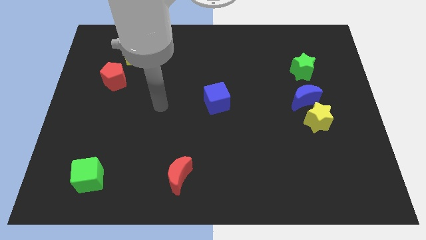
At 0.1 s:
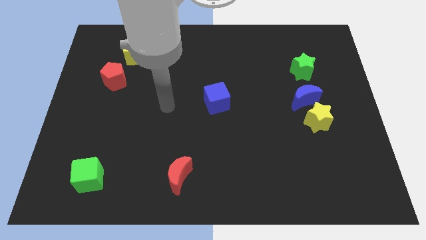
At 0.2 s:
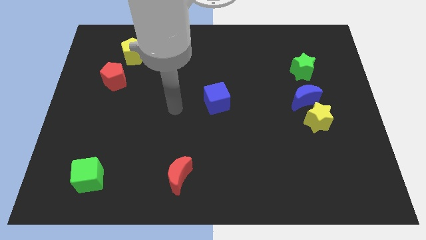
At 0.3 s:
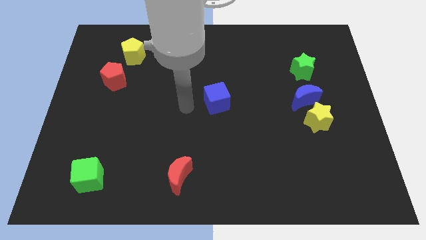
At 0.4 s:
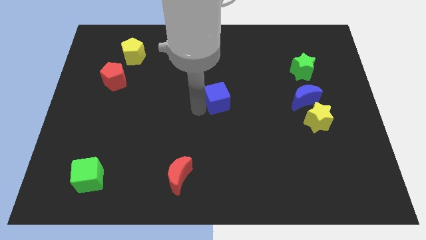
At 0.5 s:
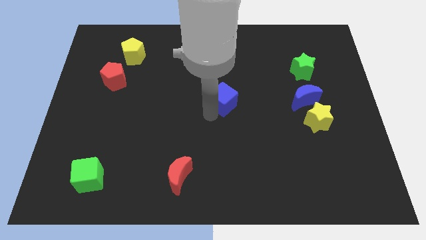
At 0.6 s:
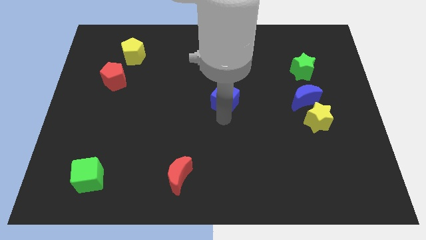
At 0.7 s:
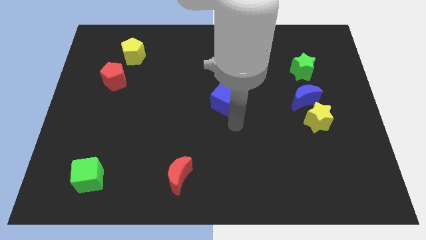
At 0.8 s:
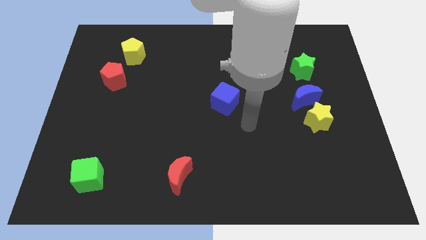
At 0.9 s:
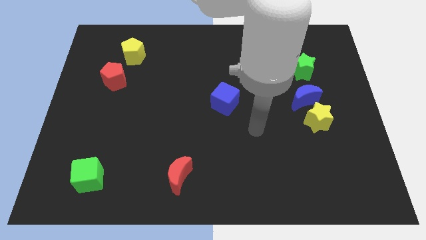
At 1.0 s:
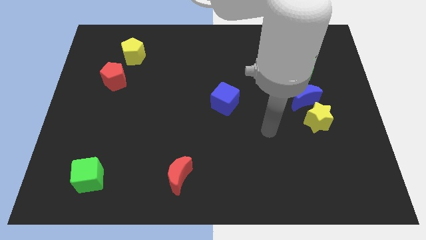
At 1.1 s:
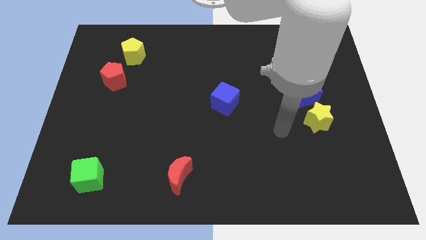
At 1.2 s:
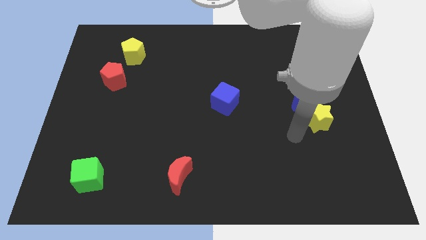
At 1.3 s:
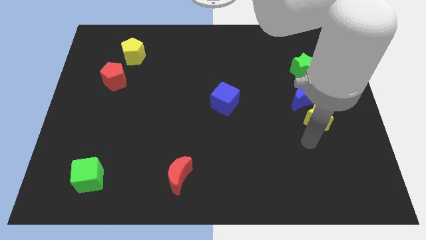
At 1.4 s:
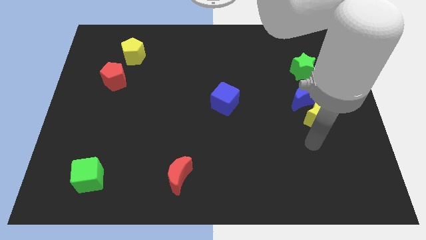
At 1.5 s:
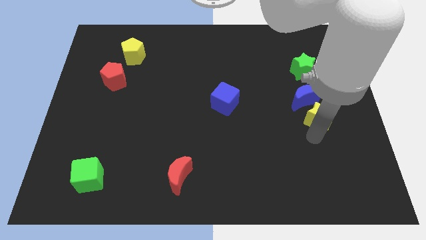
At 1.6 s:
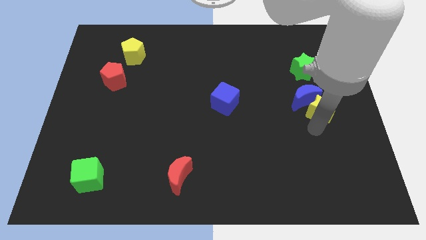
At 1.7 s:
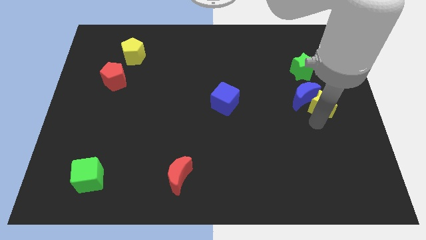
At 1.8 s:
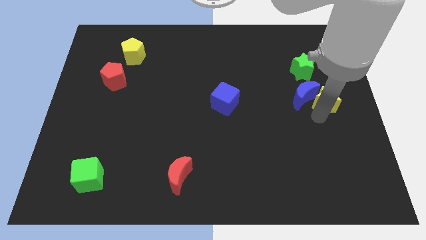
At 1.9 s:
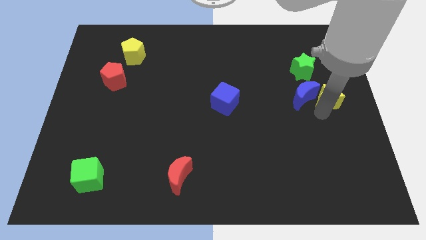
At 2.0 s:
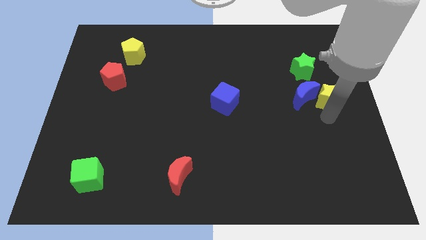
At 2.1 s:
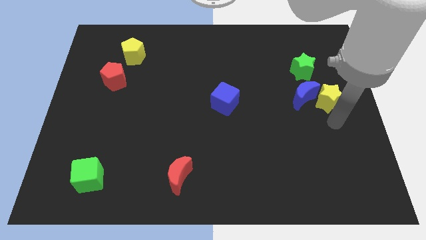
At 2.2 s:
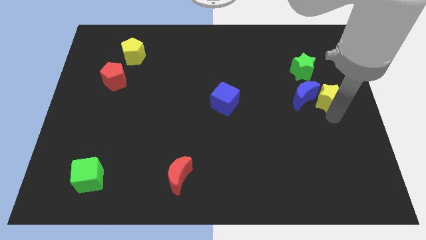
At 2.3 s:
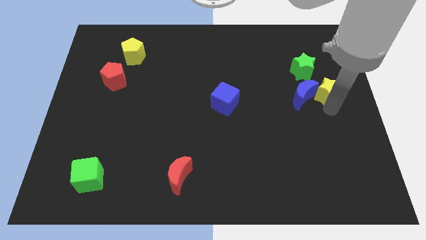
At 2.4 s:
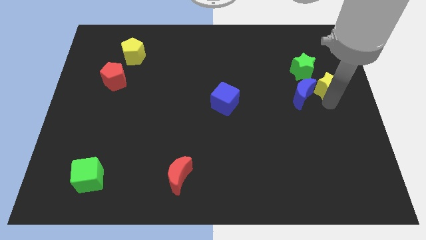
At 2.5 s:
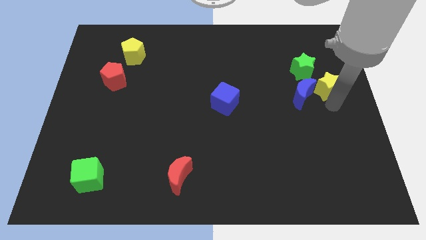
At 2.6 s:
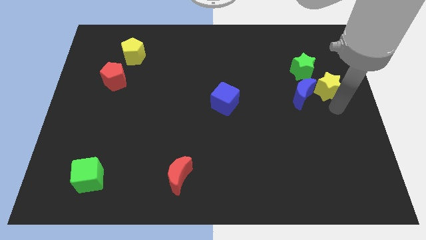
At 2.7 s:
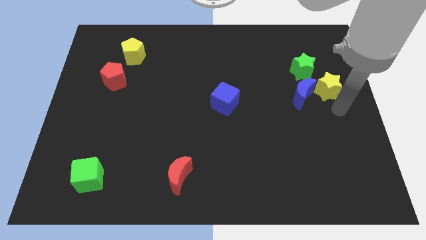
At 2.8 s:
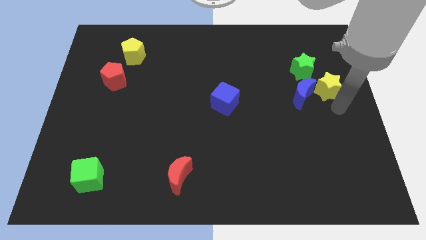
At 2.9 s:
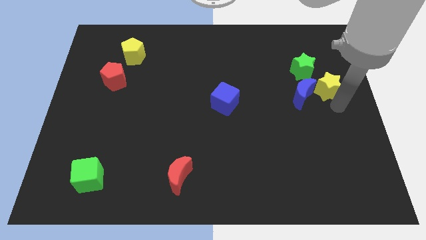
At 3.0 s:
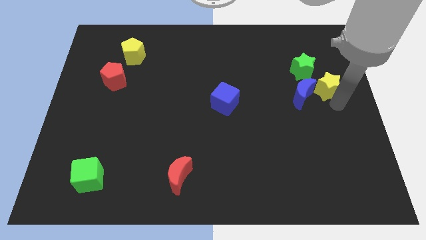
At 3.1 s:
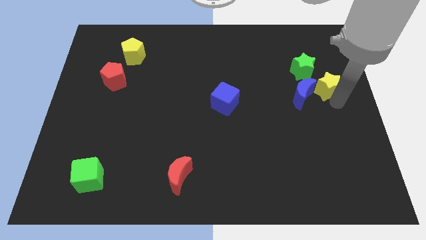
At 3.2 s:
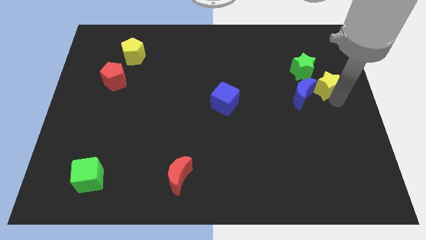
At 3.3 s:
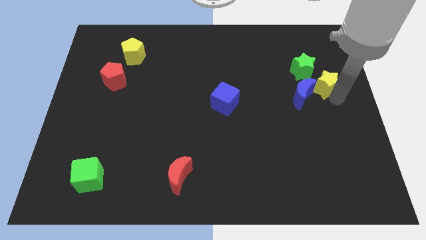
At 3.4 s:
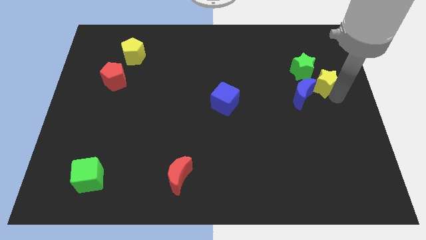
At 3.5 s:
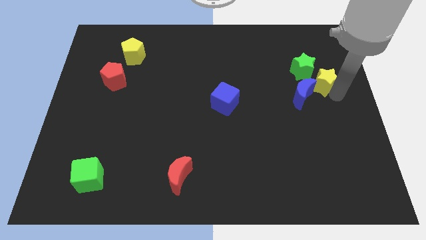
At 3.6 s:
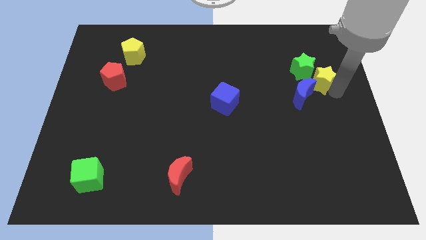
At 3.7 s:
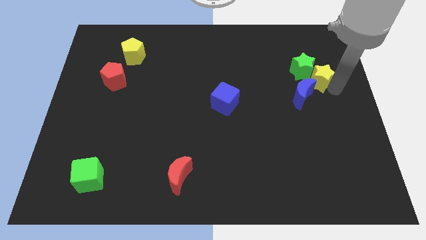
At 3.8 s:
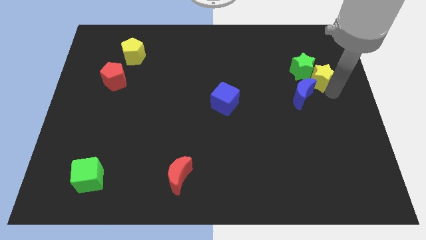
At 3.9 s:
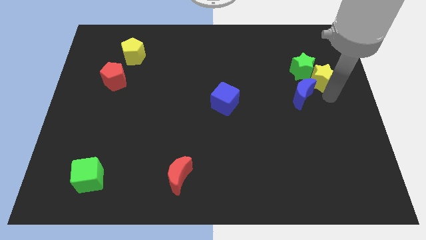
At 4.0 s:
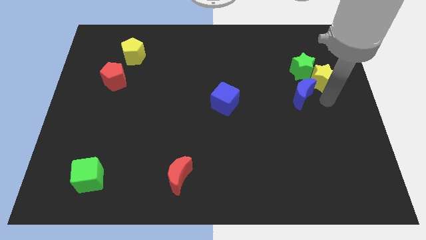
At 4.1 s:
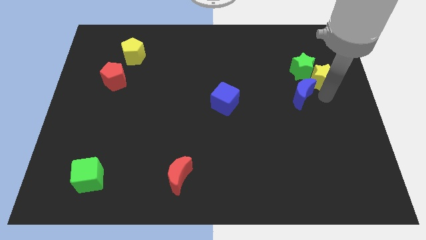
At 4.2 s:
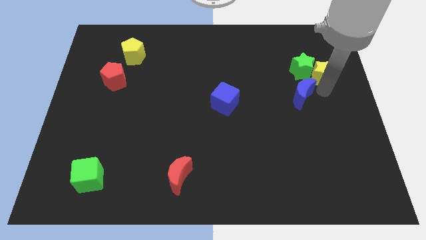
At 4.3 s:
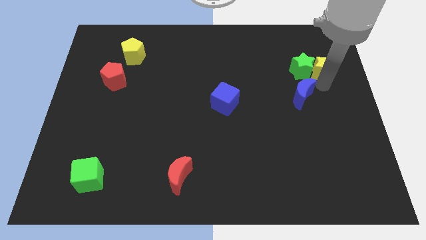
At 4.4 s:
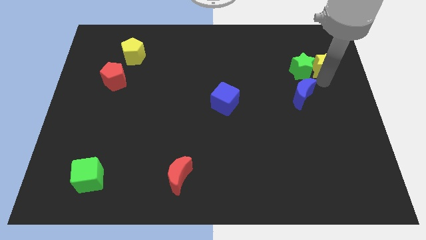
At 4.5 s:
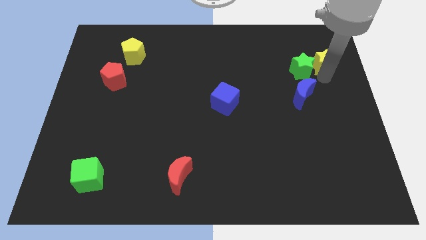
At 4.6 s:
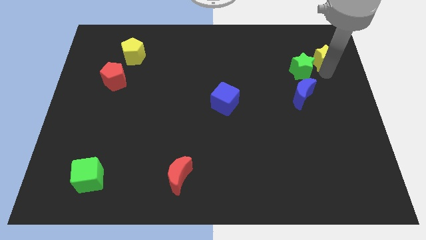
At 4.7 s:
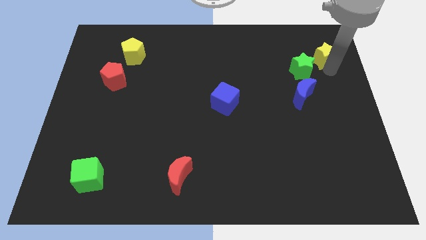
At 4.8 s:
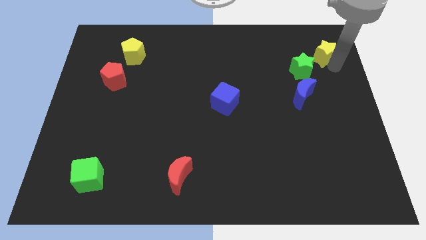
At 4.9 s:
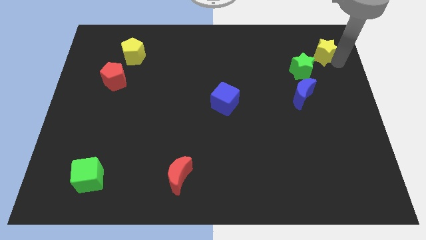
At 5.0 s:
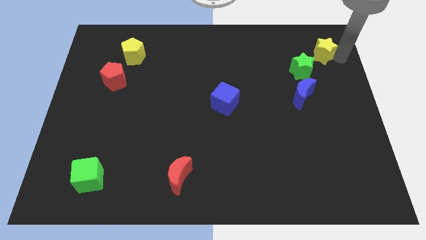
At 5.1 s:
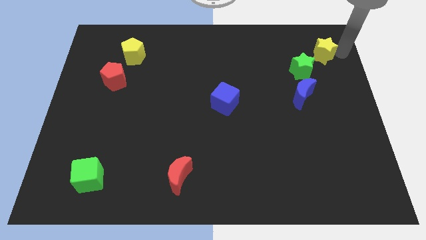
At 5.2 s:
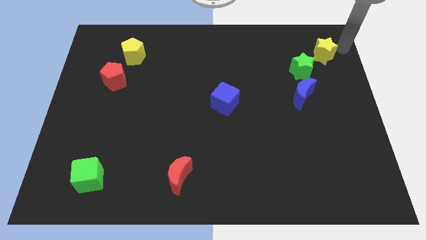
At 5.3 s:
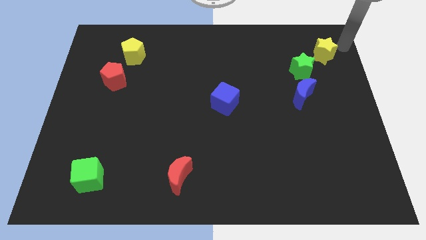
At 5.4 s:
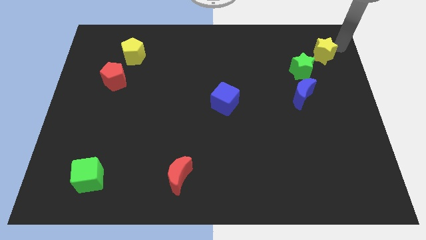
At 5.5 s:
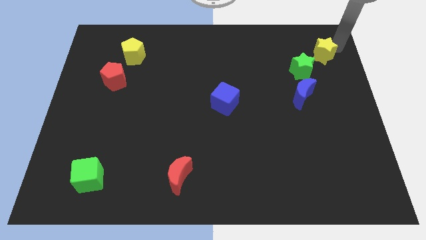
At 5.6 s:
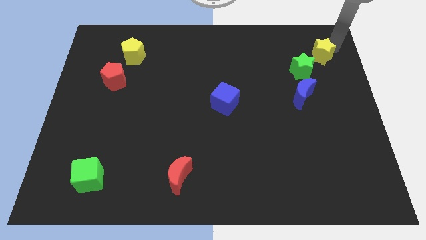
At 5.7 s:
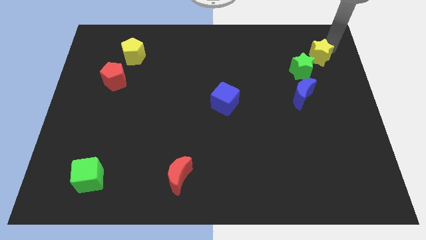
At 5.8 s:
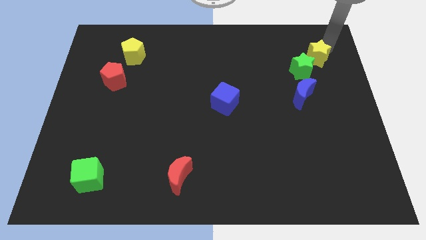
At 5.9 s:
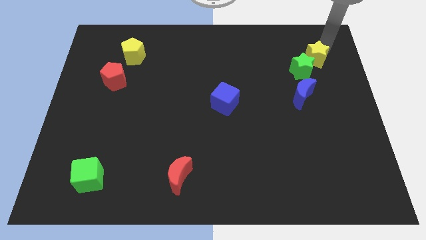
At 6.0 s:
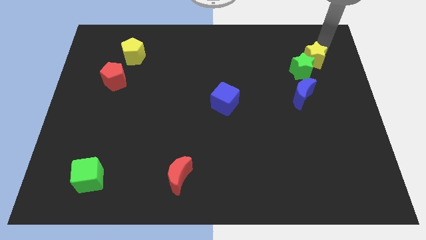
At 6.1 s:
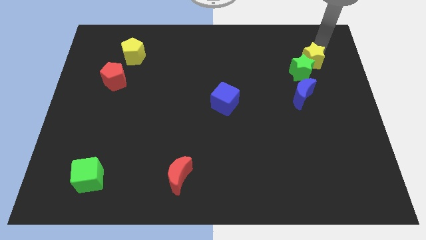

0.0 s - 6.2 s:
push the yellow star above the blue moon

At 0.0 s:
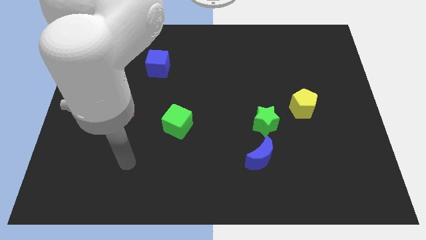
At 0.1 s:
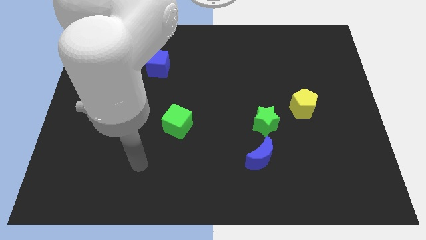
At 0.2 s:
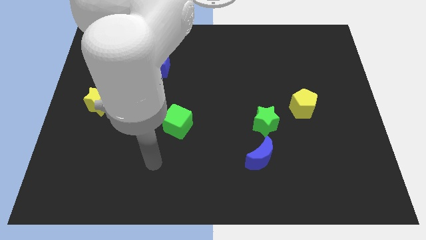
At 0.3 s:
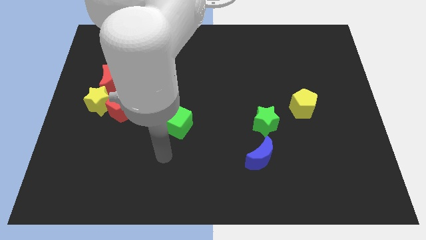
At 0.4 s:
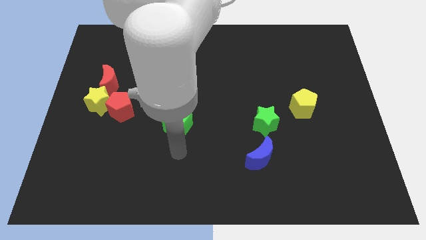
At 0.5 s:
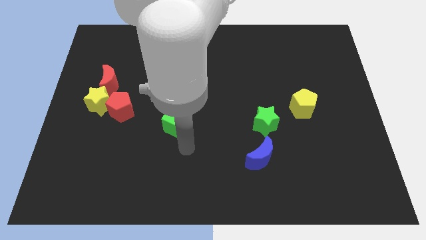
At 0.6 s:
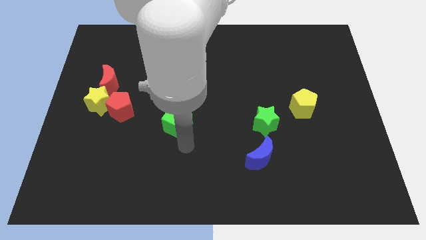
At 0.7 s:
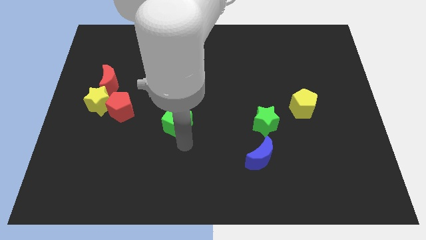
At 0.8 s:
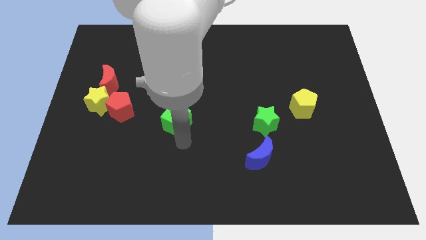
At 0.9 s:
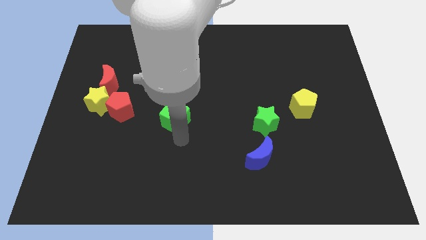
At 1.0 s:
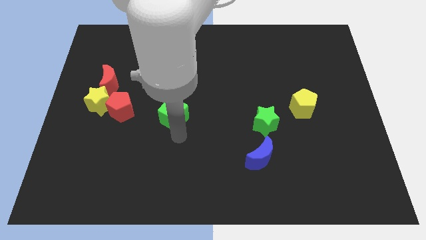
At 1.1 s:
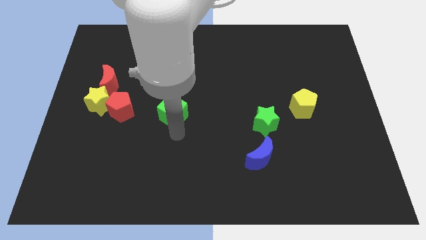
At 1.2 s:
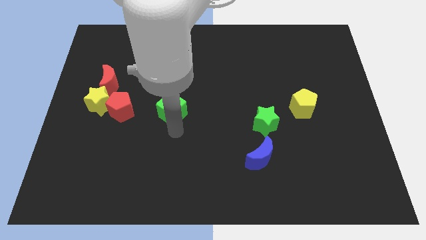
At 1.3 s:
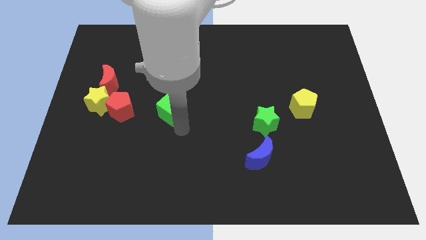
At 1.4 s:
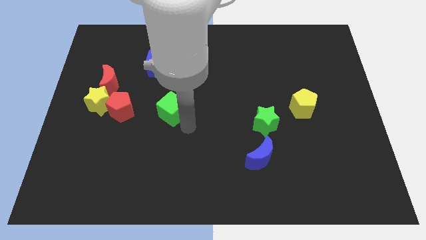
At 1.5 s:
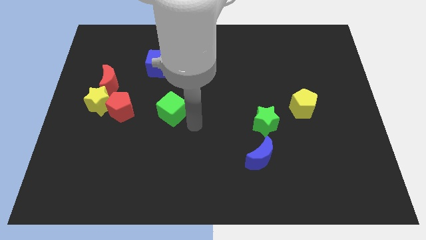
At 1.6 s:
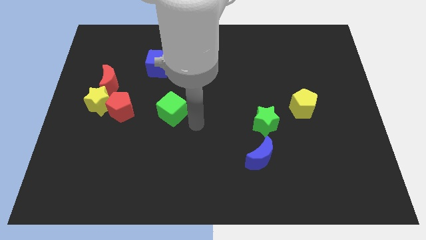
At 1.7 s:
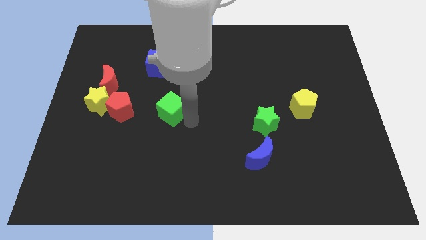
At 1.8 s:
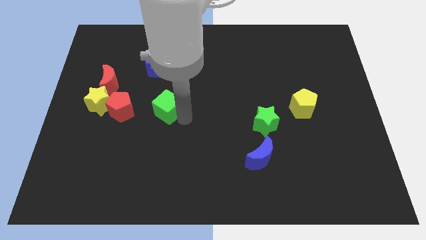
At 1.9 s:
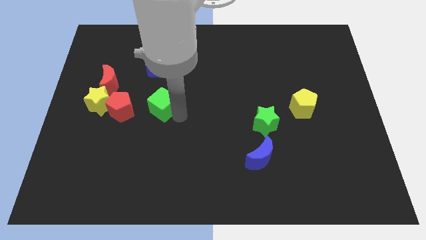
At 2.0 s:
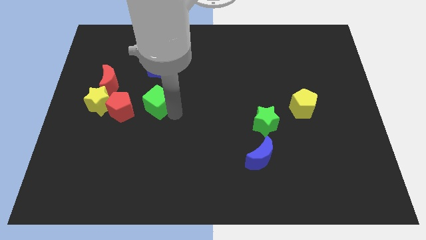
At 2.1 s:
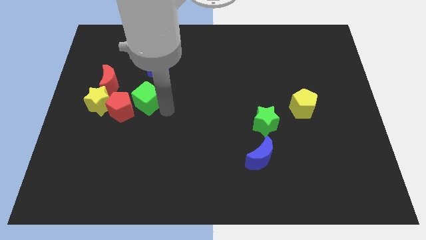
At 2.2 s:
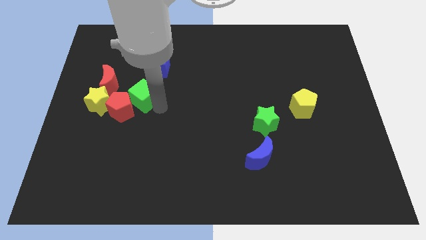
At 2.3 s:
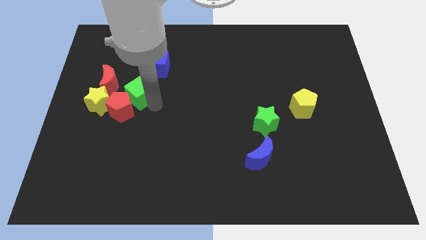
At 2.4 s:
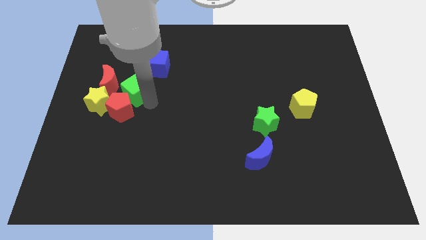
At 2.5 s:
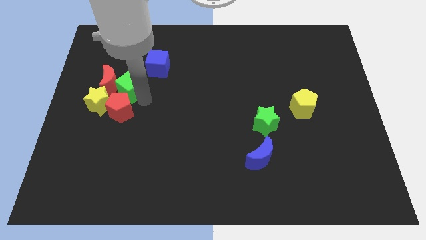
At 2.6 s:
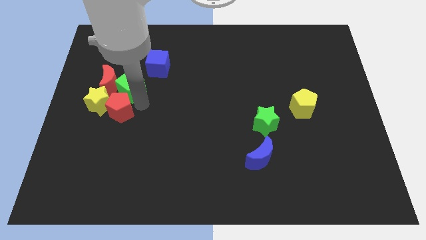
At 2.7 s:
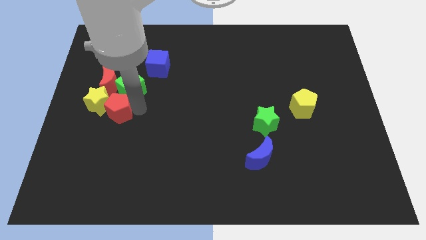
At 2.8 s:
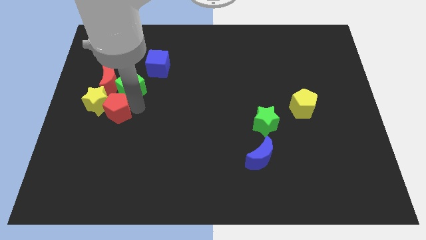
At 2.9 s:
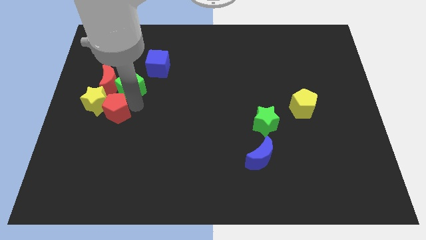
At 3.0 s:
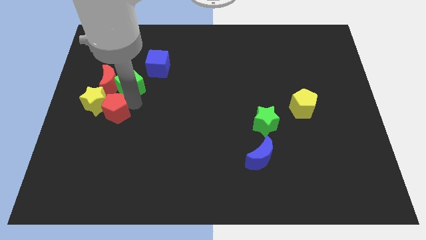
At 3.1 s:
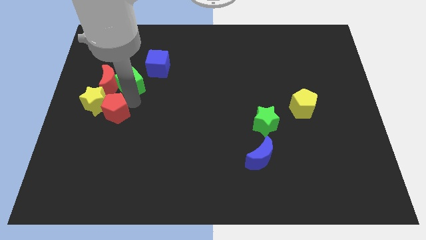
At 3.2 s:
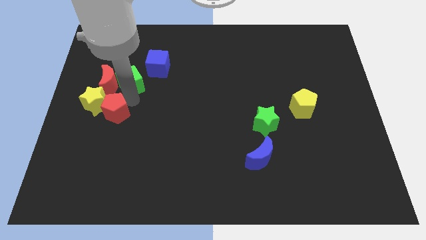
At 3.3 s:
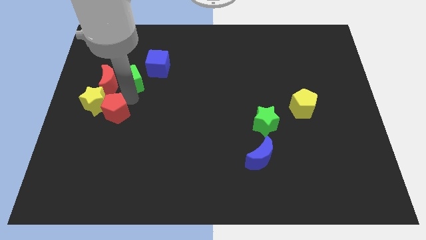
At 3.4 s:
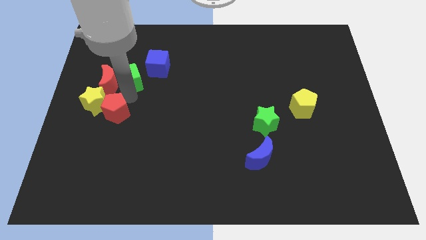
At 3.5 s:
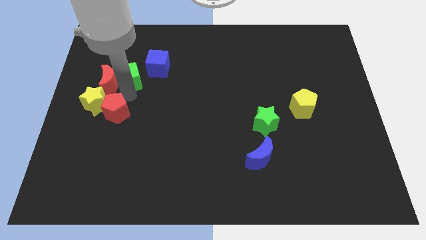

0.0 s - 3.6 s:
push the green cube to the left side of the blue cube
